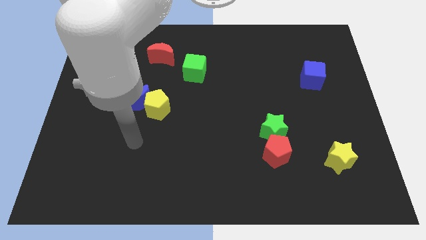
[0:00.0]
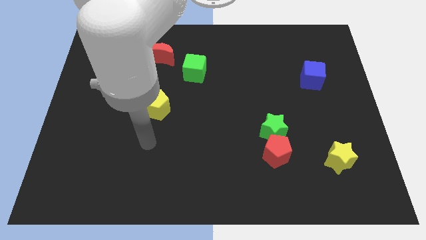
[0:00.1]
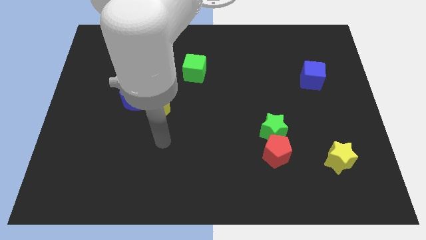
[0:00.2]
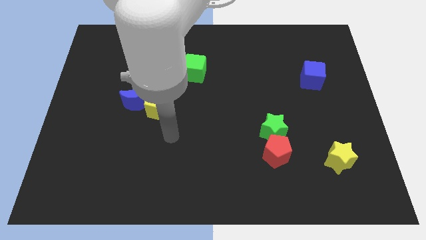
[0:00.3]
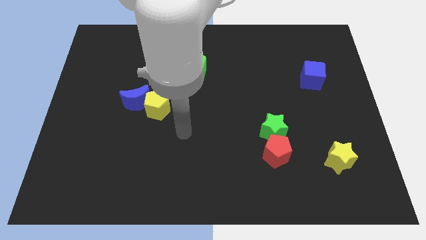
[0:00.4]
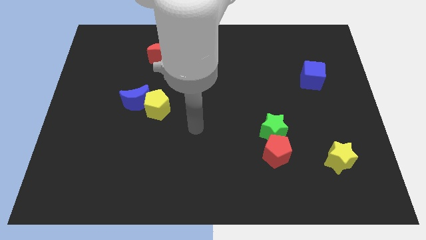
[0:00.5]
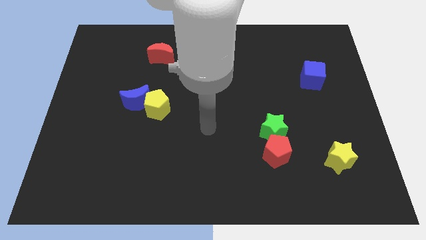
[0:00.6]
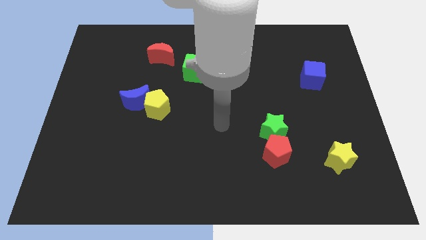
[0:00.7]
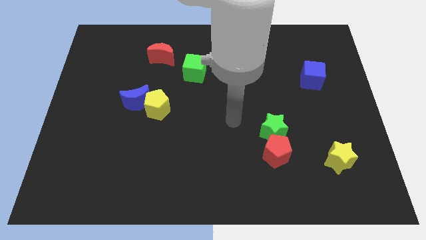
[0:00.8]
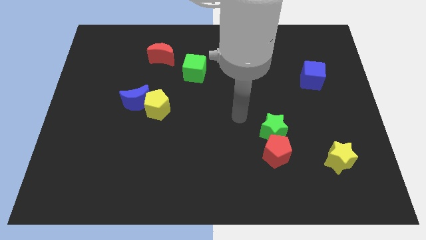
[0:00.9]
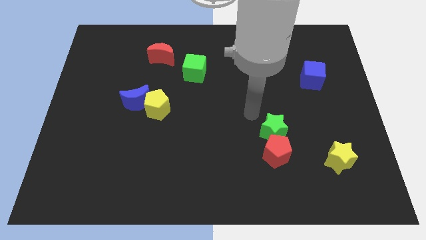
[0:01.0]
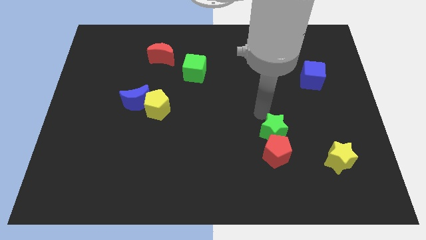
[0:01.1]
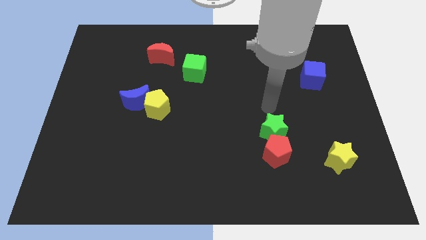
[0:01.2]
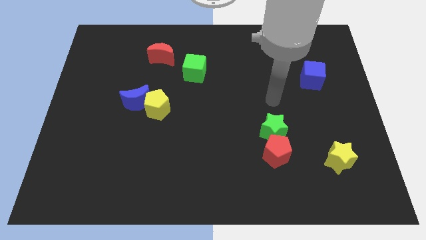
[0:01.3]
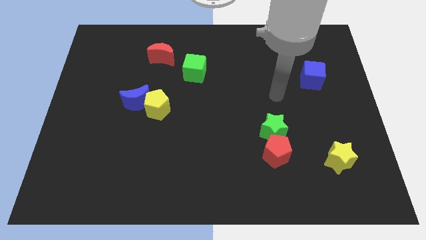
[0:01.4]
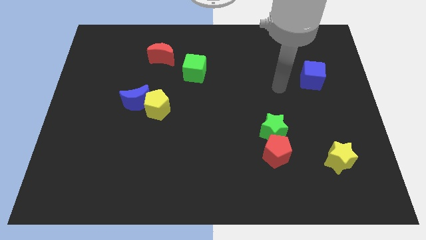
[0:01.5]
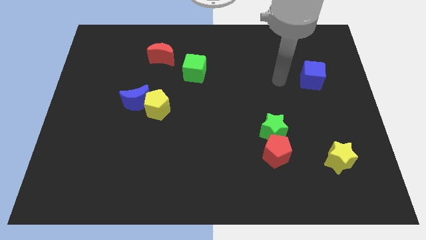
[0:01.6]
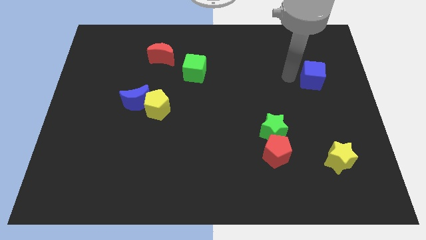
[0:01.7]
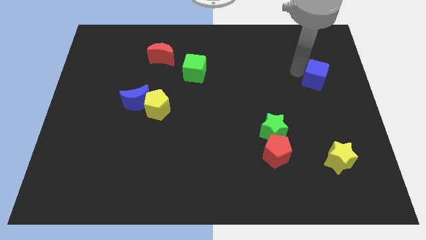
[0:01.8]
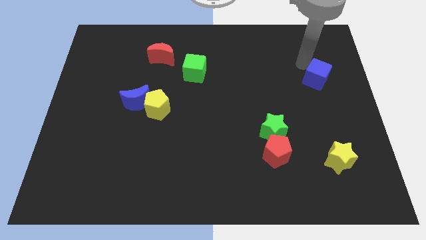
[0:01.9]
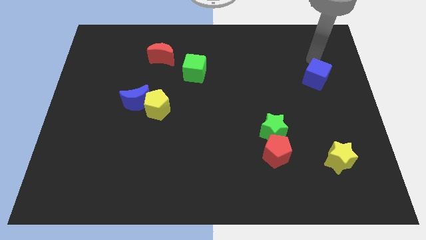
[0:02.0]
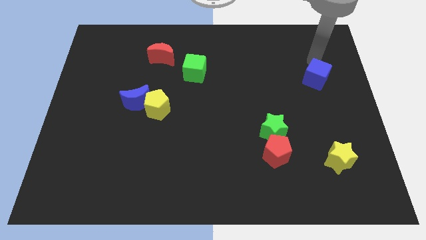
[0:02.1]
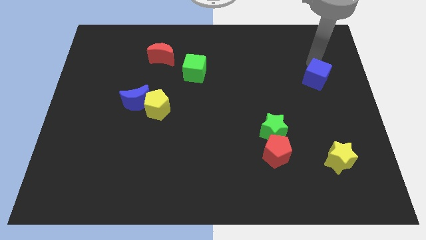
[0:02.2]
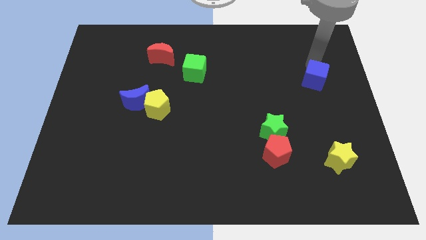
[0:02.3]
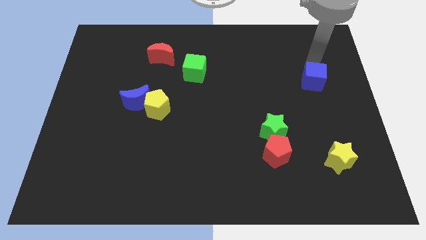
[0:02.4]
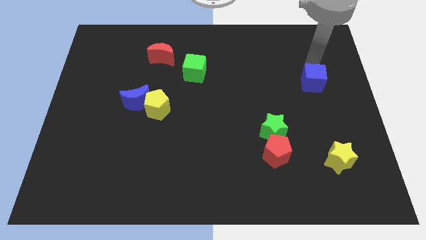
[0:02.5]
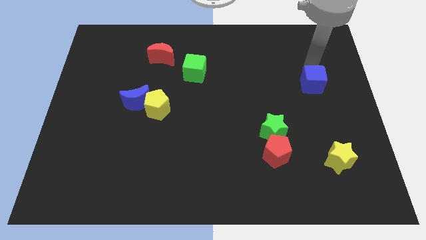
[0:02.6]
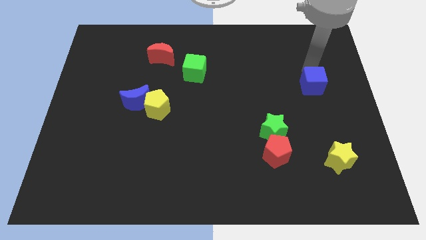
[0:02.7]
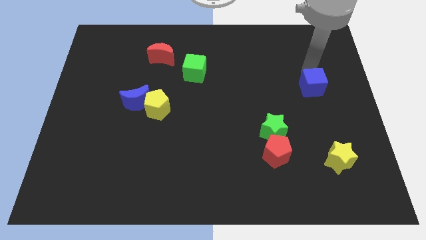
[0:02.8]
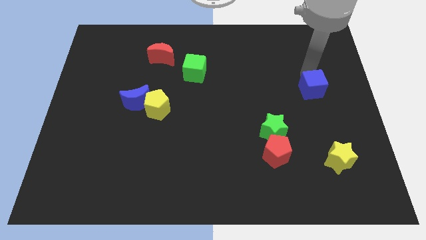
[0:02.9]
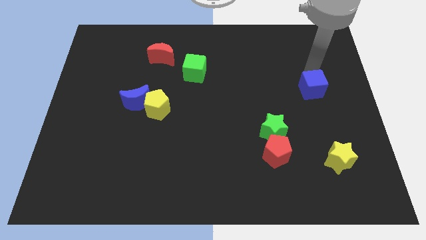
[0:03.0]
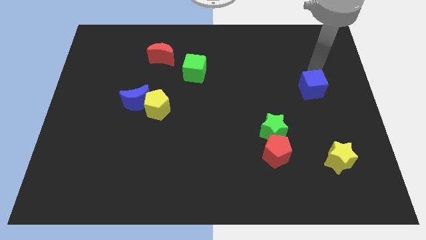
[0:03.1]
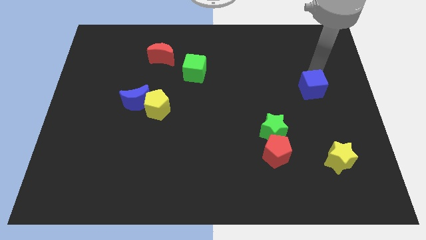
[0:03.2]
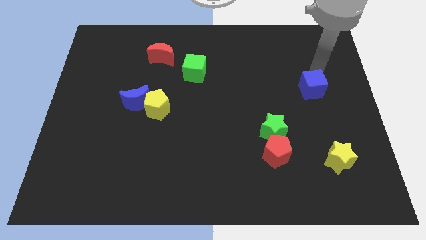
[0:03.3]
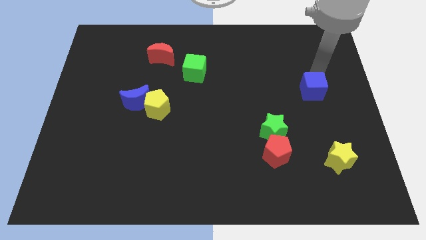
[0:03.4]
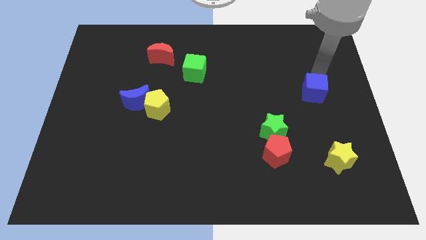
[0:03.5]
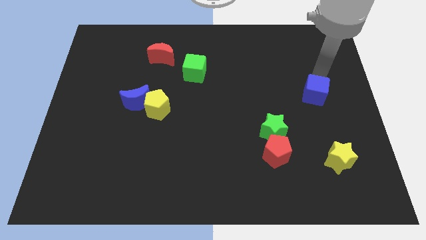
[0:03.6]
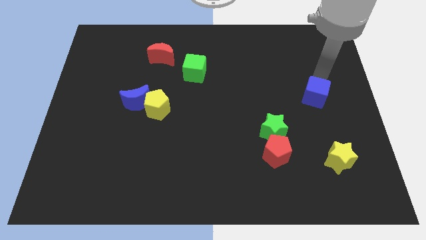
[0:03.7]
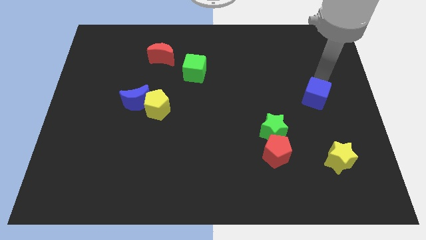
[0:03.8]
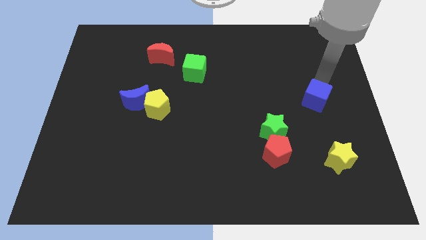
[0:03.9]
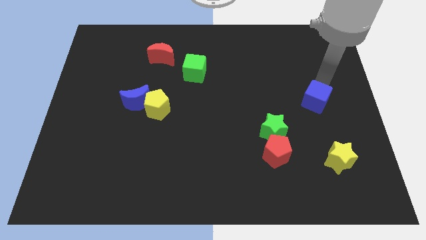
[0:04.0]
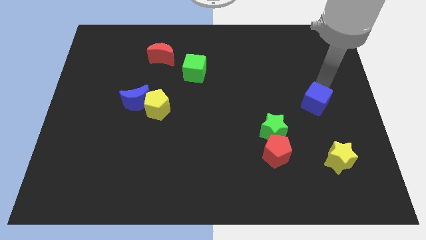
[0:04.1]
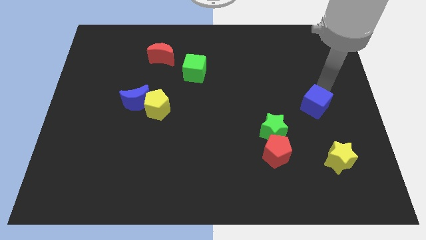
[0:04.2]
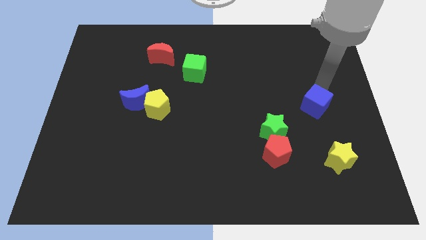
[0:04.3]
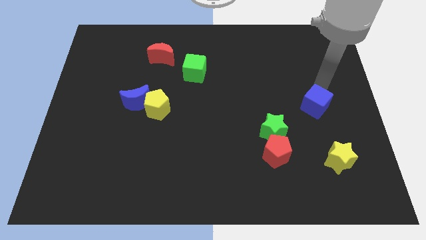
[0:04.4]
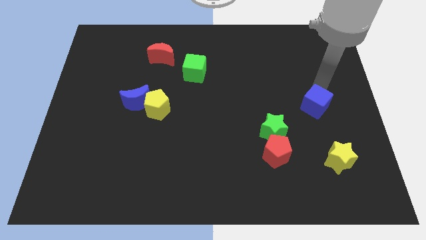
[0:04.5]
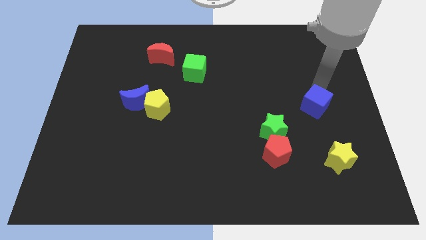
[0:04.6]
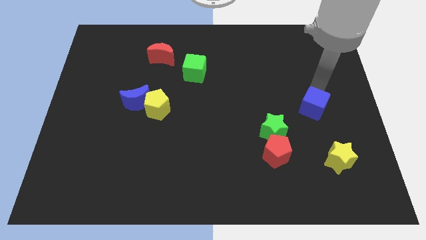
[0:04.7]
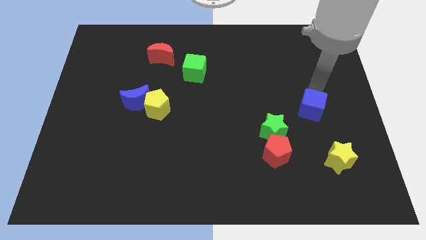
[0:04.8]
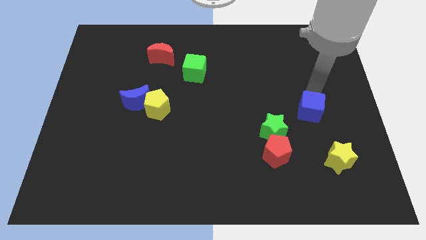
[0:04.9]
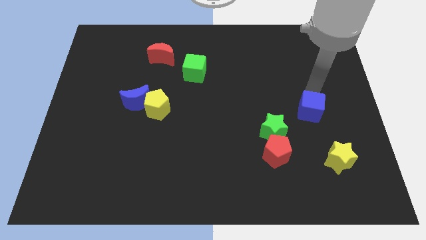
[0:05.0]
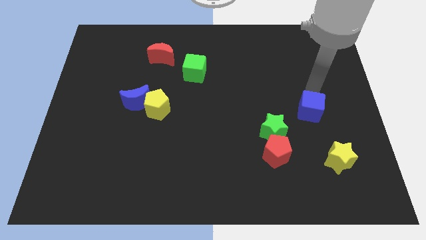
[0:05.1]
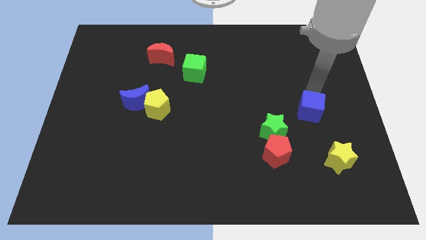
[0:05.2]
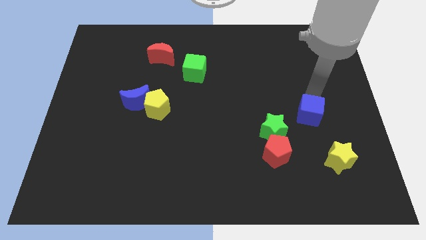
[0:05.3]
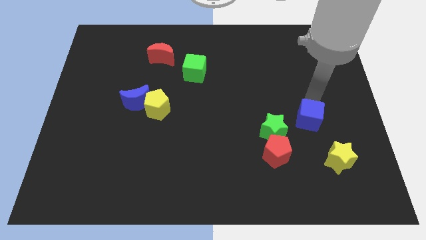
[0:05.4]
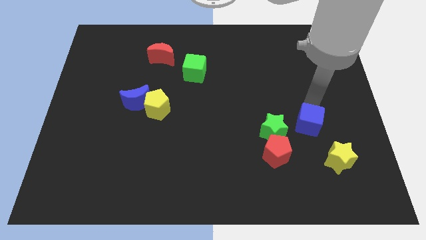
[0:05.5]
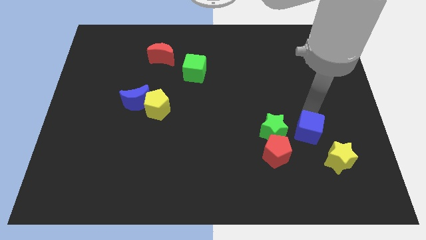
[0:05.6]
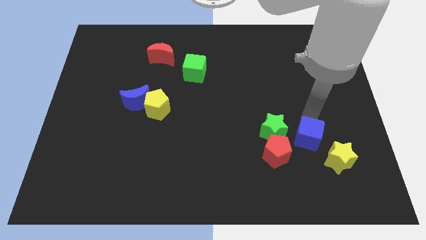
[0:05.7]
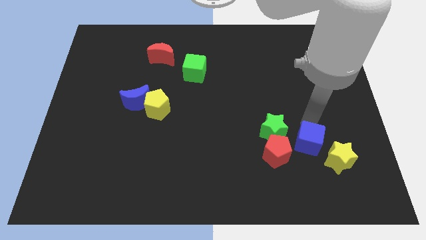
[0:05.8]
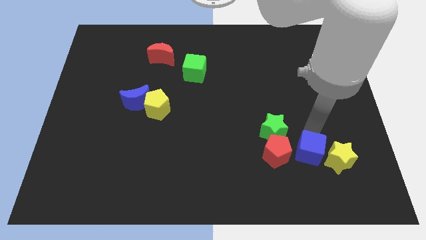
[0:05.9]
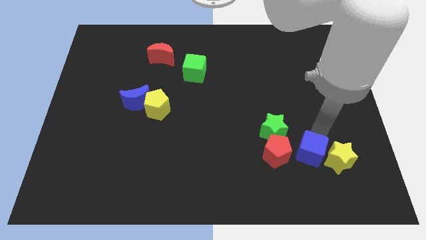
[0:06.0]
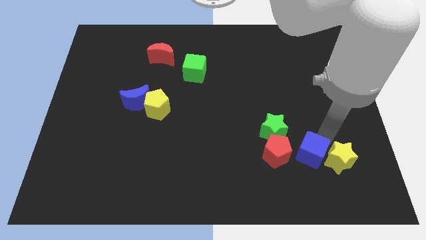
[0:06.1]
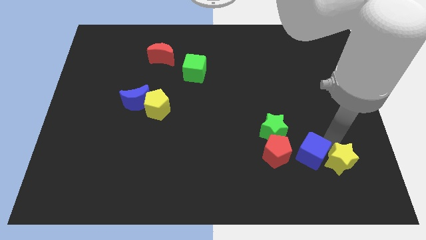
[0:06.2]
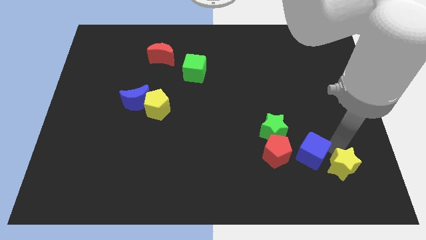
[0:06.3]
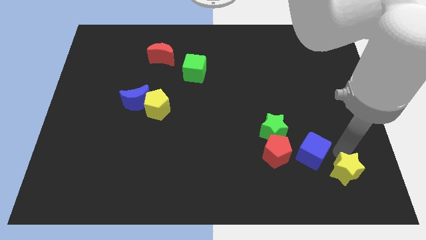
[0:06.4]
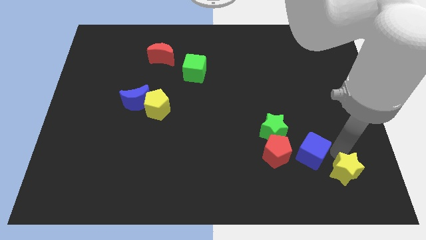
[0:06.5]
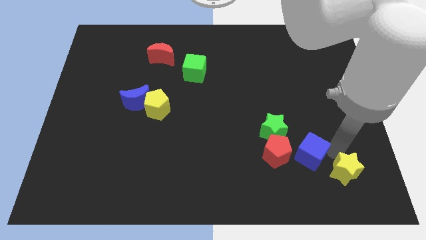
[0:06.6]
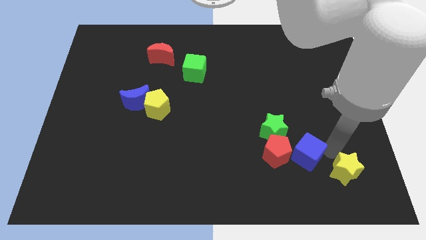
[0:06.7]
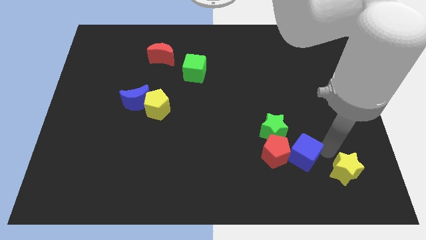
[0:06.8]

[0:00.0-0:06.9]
push the blue cube to the red pentagon

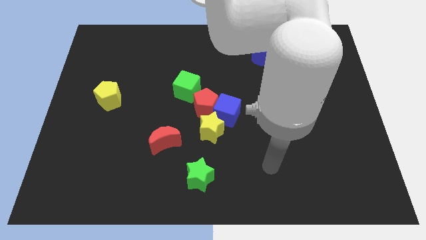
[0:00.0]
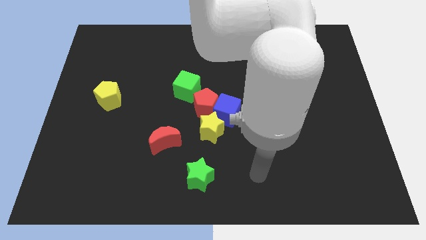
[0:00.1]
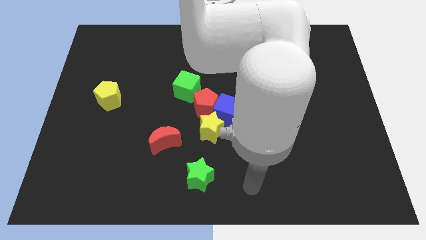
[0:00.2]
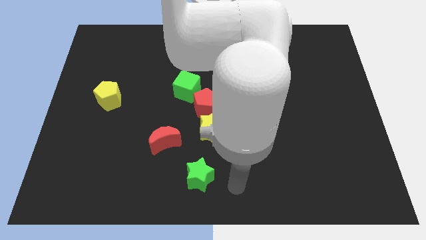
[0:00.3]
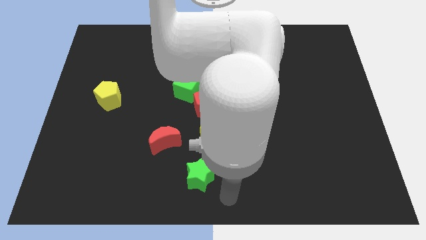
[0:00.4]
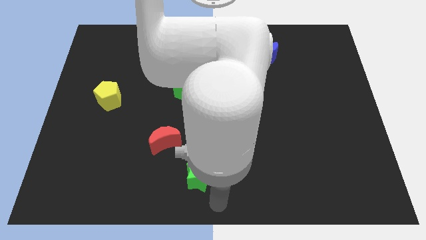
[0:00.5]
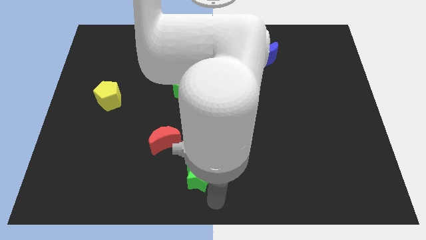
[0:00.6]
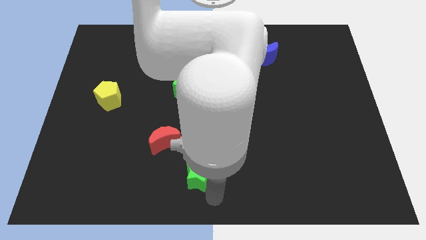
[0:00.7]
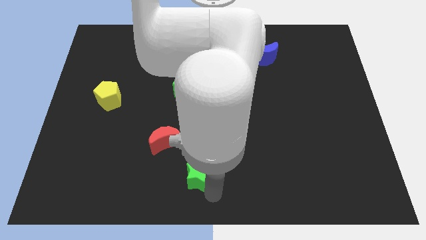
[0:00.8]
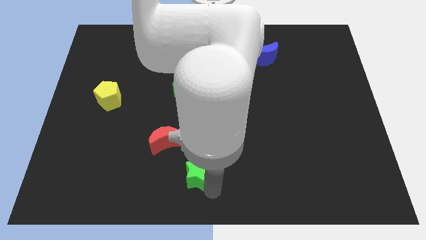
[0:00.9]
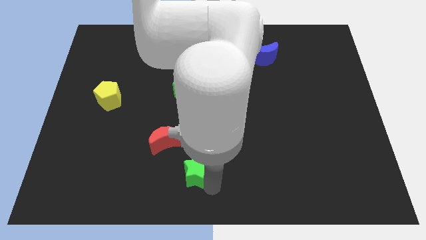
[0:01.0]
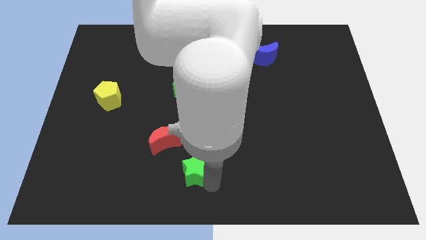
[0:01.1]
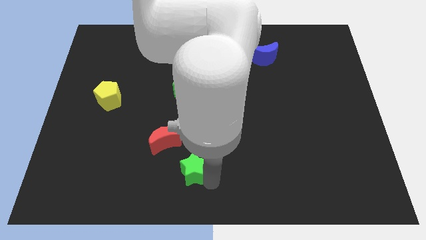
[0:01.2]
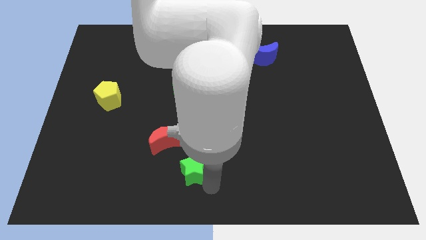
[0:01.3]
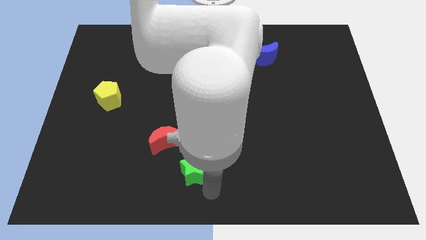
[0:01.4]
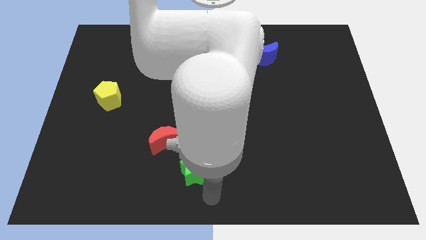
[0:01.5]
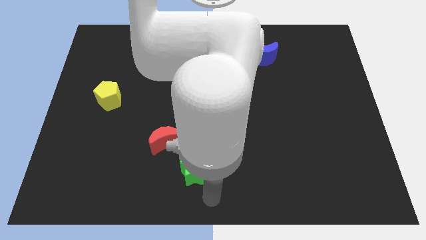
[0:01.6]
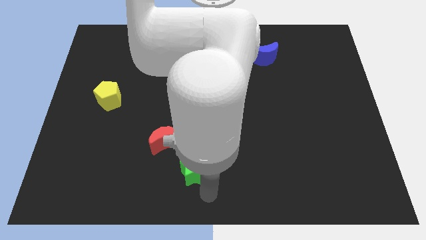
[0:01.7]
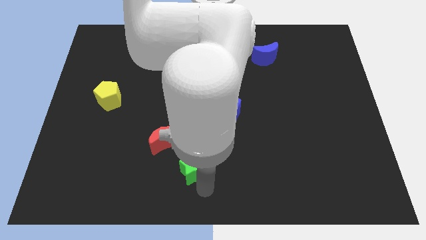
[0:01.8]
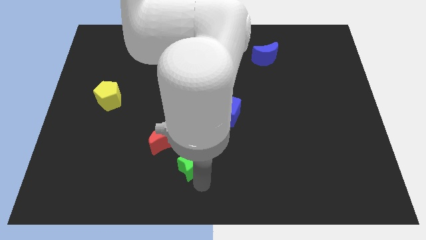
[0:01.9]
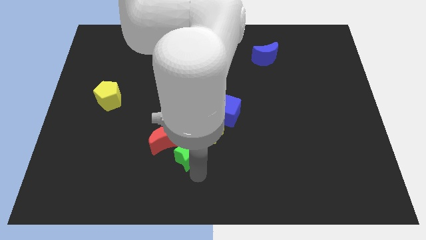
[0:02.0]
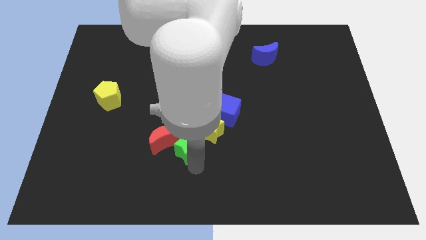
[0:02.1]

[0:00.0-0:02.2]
push the green star close to the red moon
